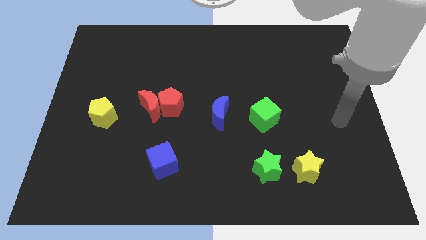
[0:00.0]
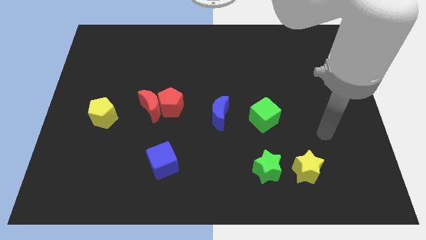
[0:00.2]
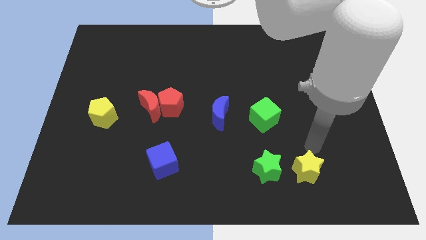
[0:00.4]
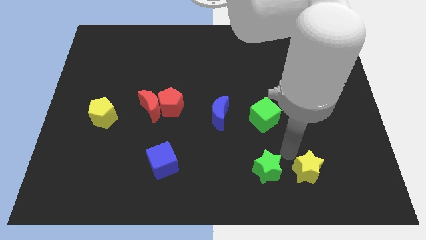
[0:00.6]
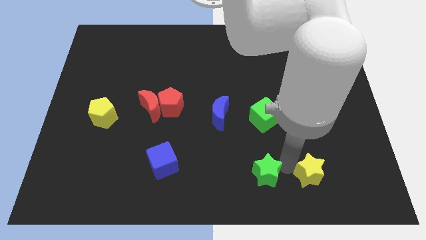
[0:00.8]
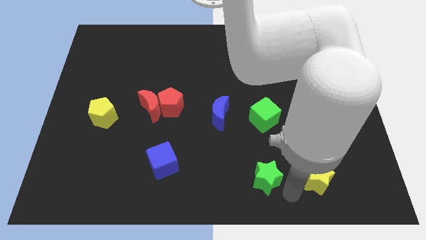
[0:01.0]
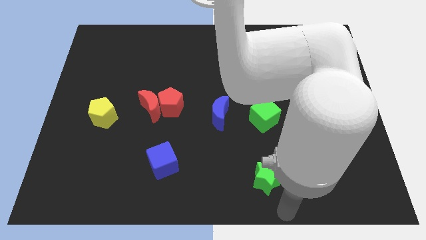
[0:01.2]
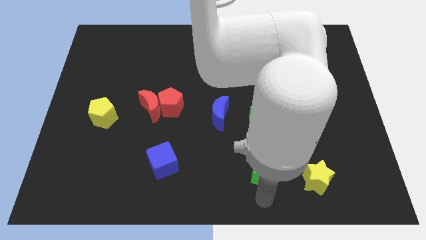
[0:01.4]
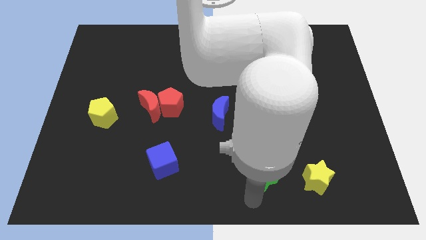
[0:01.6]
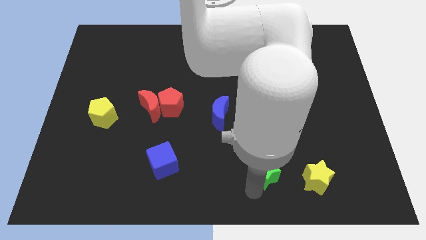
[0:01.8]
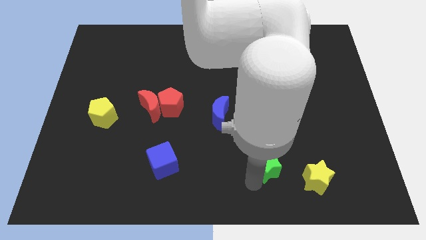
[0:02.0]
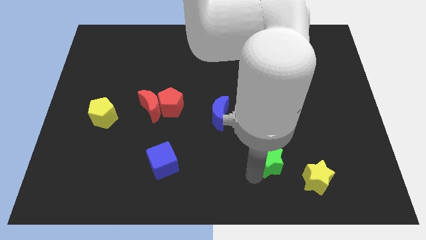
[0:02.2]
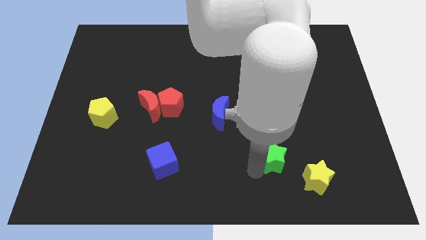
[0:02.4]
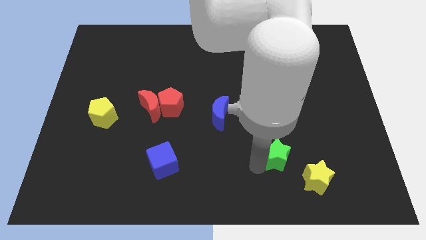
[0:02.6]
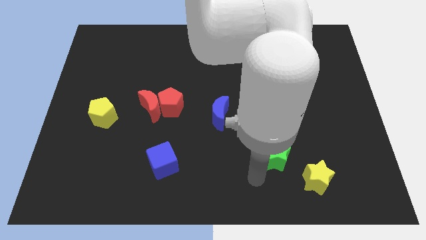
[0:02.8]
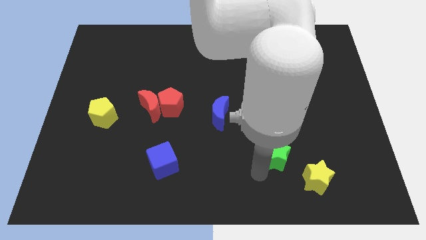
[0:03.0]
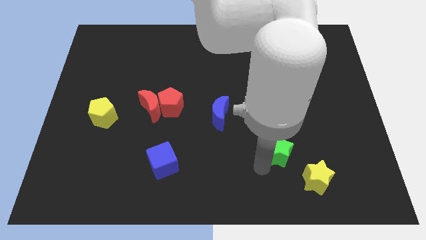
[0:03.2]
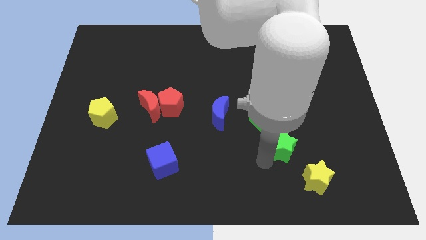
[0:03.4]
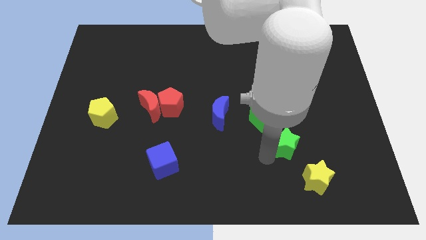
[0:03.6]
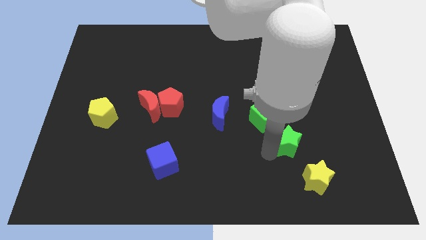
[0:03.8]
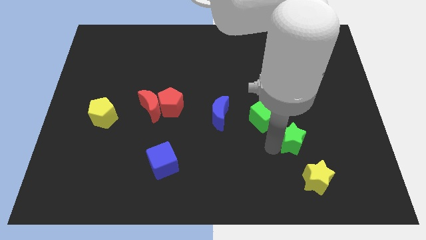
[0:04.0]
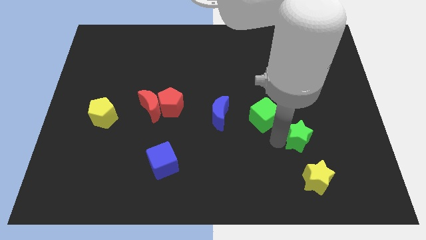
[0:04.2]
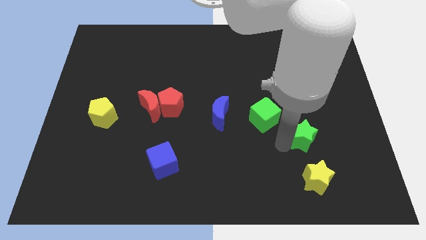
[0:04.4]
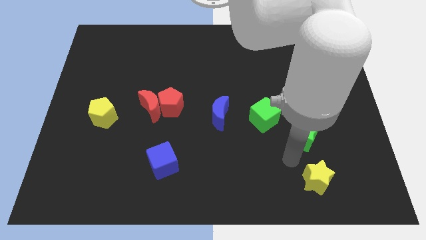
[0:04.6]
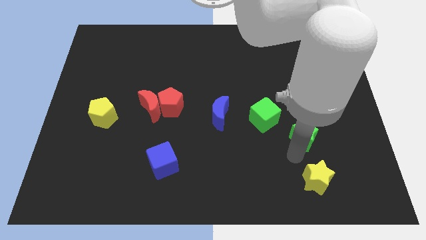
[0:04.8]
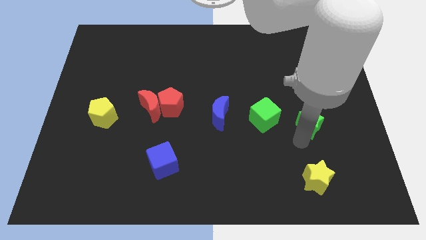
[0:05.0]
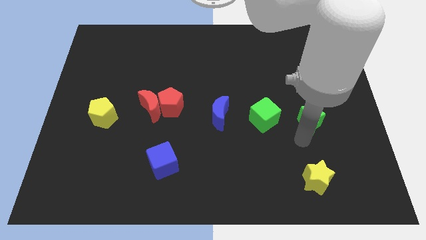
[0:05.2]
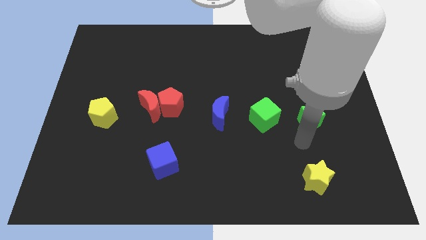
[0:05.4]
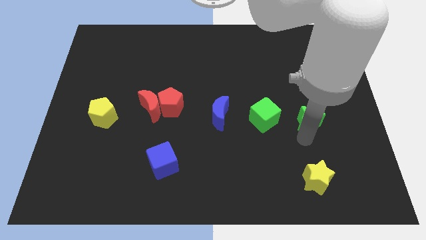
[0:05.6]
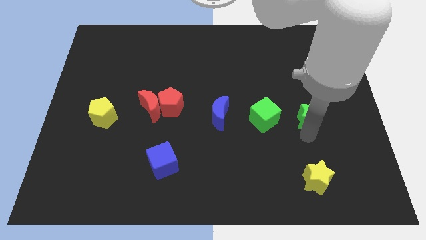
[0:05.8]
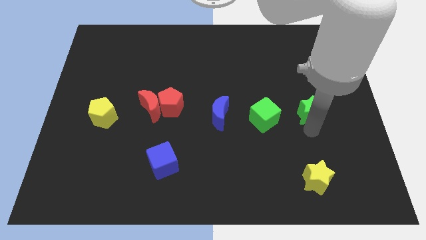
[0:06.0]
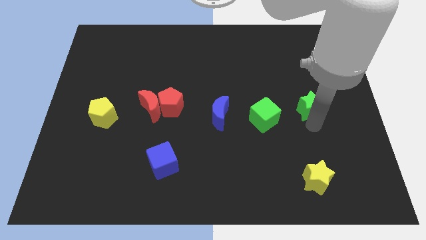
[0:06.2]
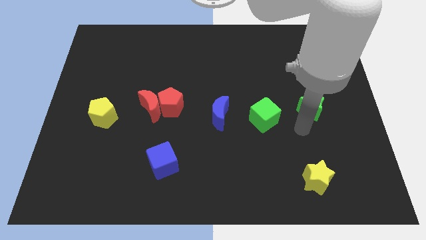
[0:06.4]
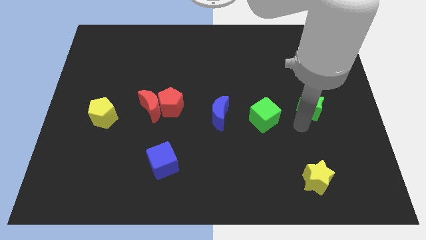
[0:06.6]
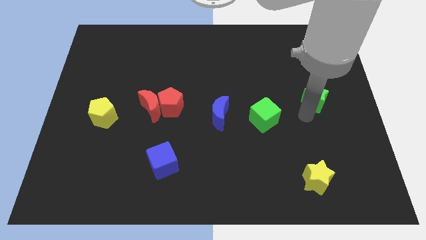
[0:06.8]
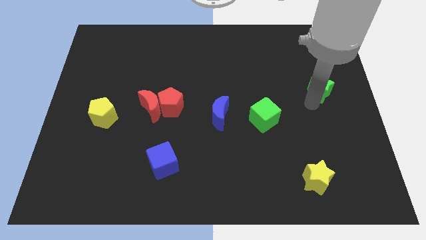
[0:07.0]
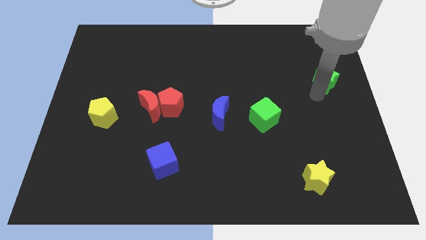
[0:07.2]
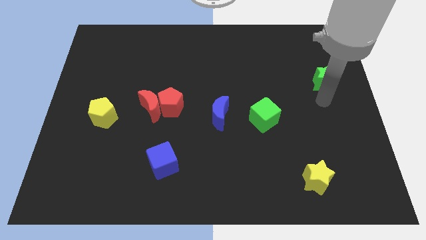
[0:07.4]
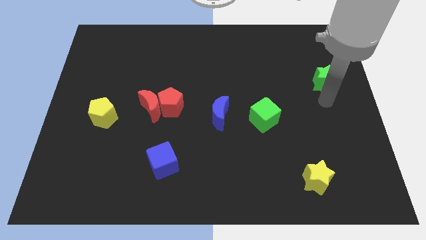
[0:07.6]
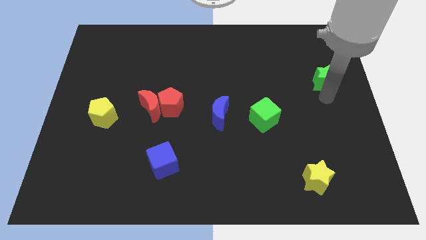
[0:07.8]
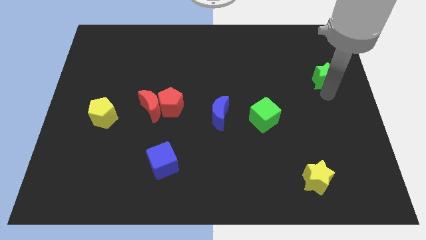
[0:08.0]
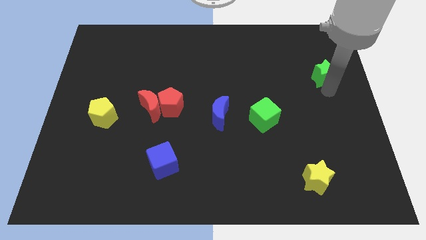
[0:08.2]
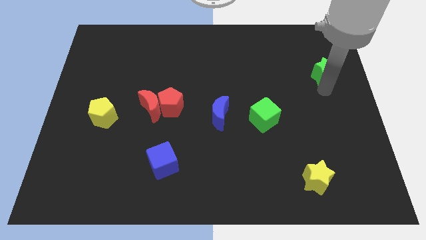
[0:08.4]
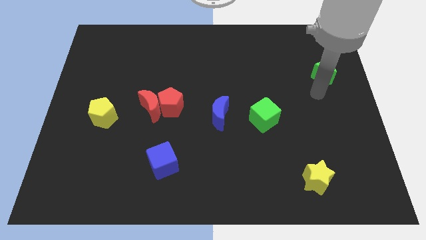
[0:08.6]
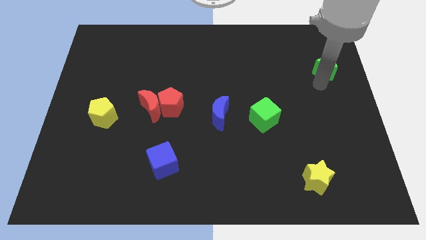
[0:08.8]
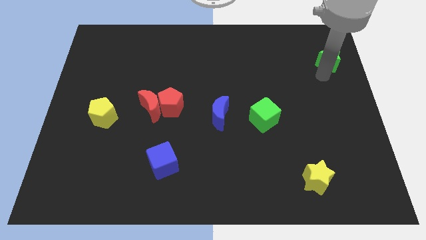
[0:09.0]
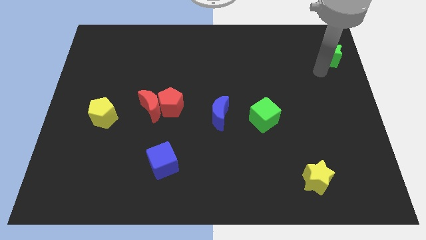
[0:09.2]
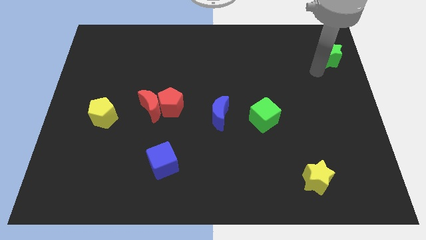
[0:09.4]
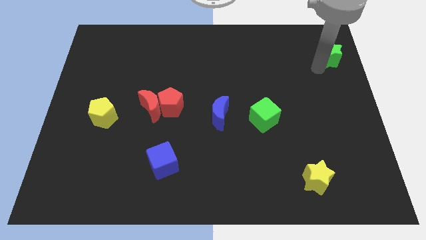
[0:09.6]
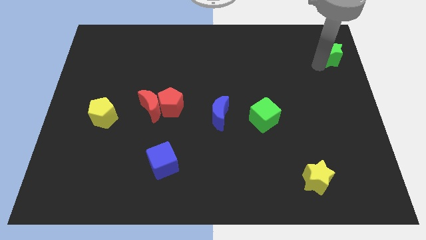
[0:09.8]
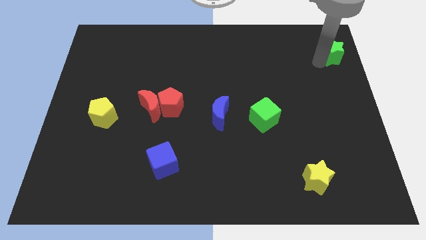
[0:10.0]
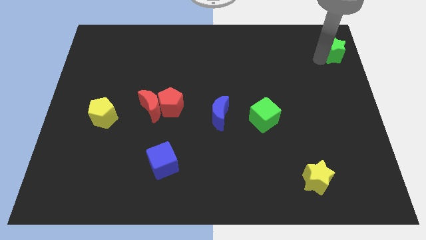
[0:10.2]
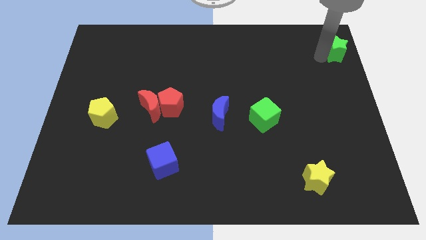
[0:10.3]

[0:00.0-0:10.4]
move the green star to the top right corner

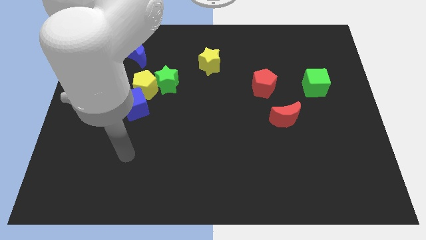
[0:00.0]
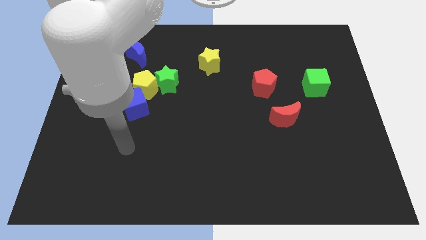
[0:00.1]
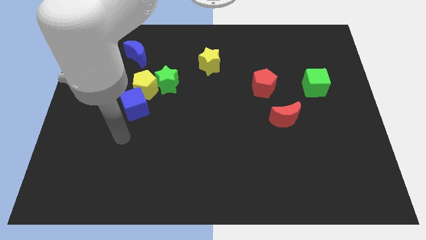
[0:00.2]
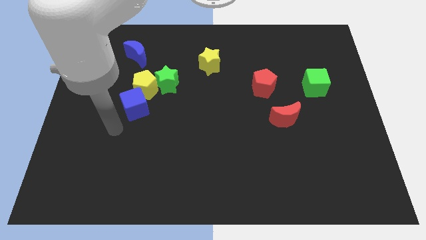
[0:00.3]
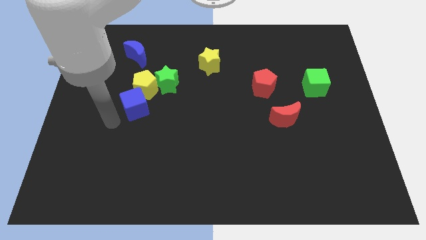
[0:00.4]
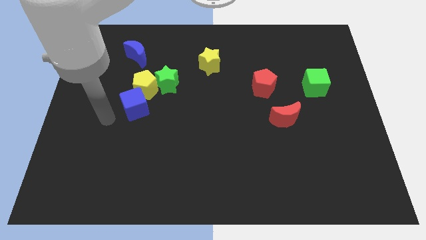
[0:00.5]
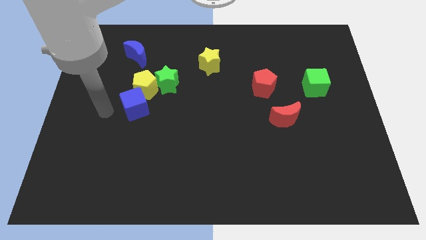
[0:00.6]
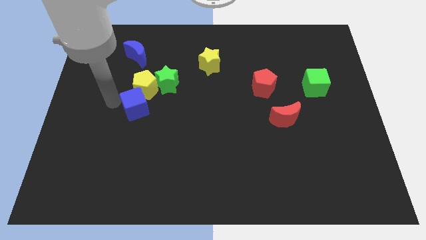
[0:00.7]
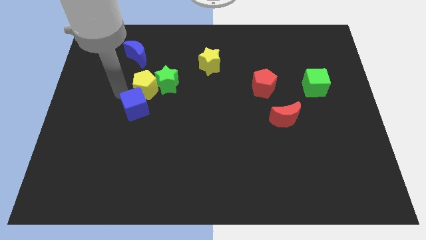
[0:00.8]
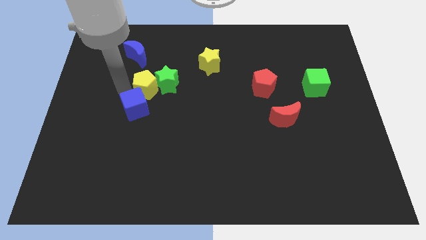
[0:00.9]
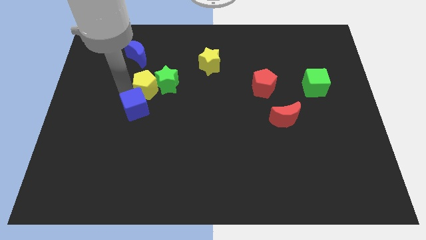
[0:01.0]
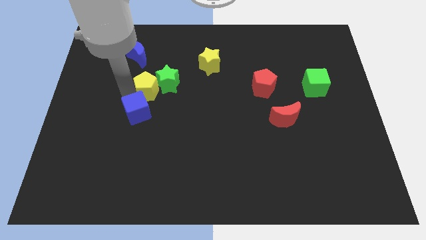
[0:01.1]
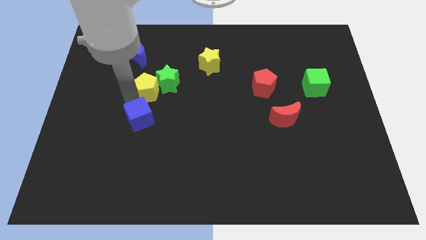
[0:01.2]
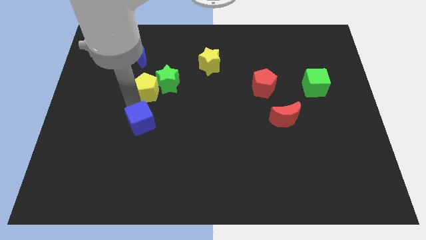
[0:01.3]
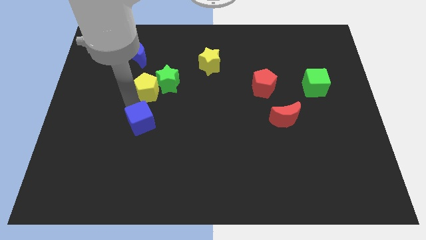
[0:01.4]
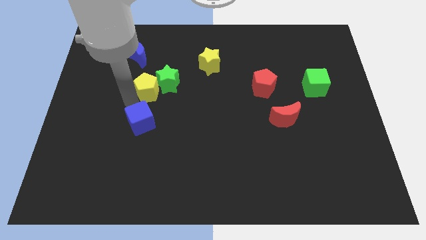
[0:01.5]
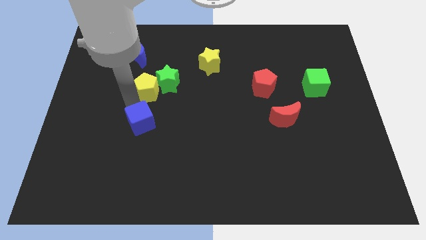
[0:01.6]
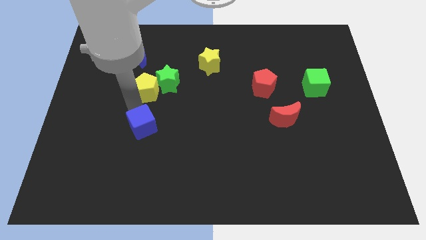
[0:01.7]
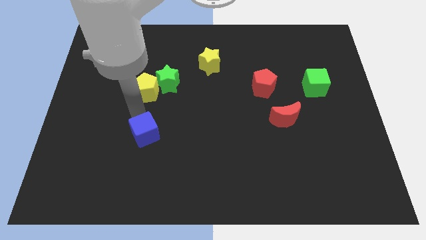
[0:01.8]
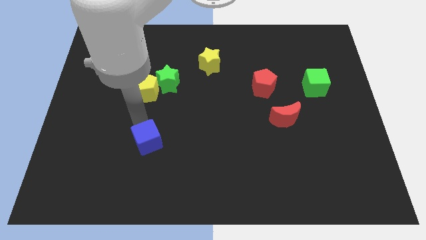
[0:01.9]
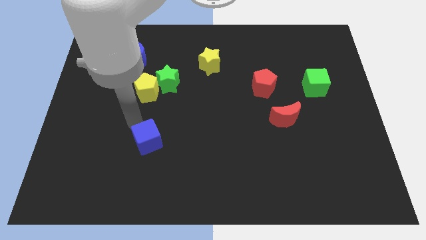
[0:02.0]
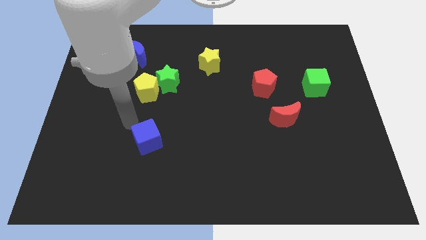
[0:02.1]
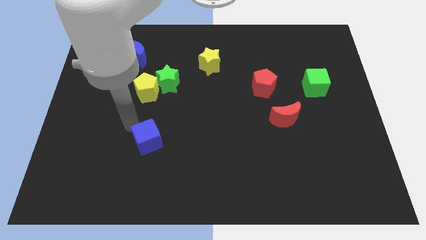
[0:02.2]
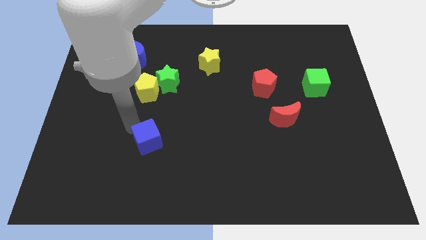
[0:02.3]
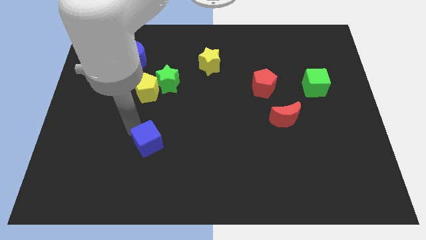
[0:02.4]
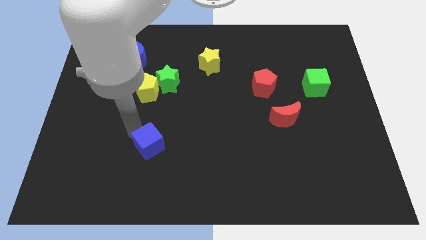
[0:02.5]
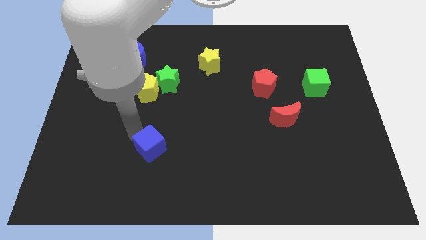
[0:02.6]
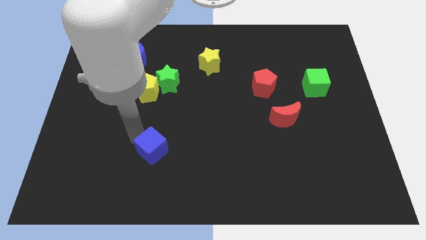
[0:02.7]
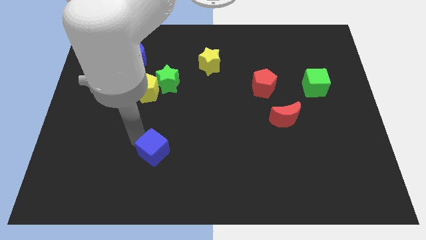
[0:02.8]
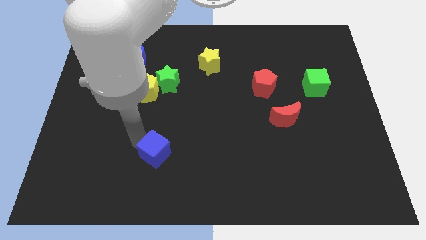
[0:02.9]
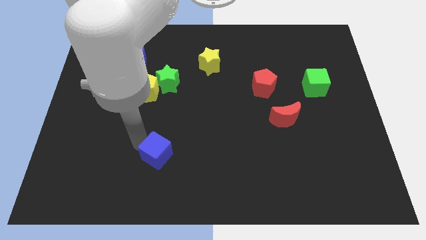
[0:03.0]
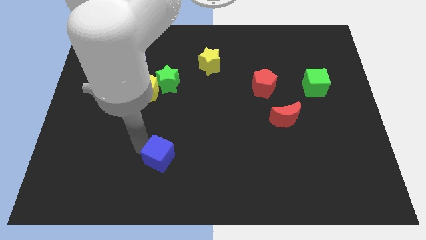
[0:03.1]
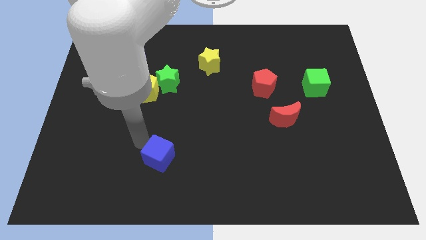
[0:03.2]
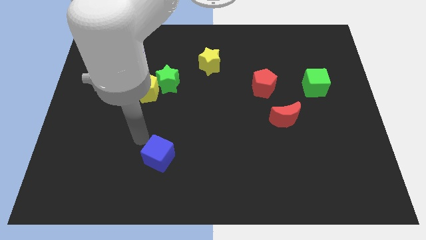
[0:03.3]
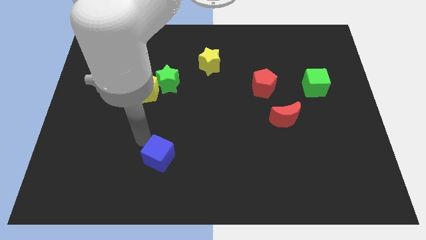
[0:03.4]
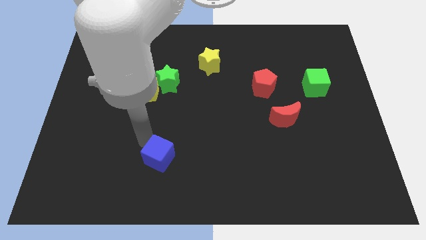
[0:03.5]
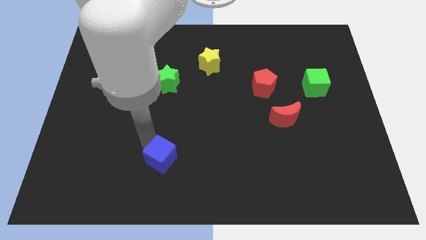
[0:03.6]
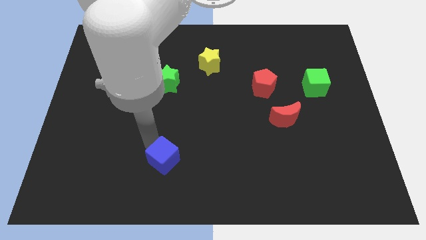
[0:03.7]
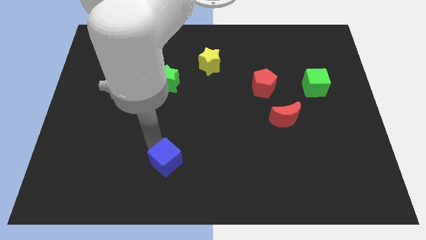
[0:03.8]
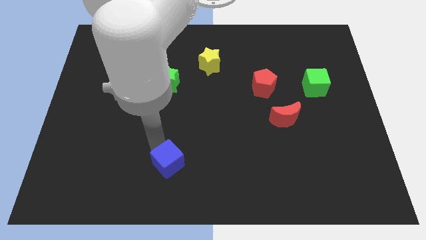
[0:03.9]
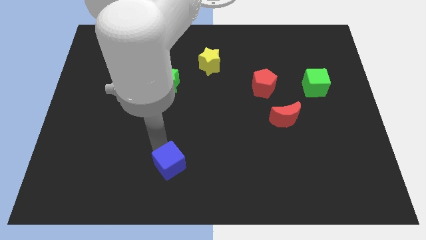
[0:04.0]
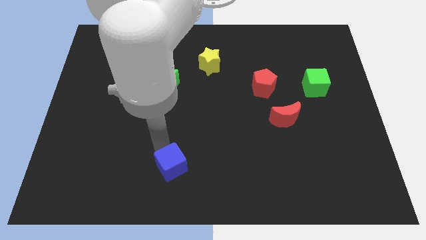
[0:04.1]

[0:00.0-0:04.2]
push the blue cube to the bottom
